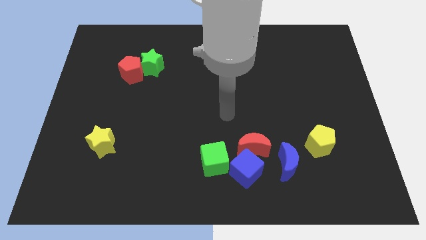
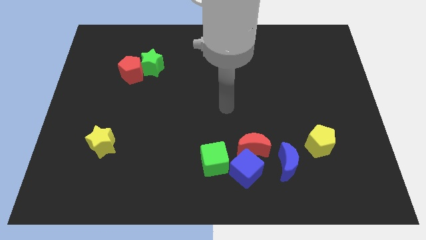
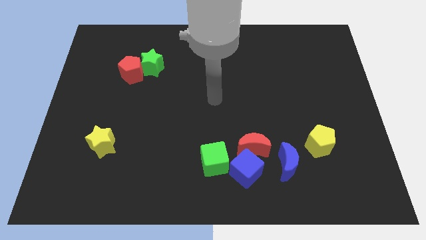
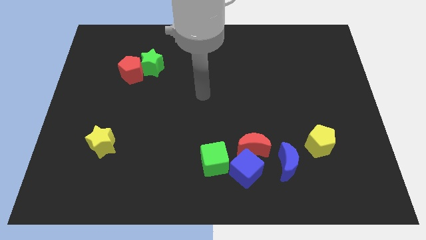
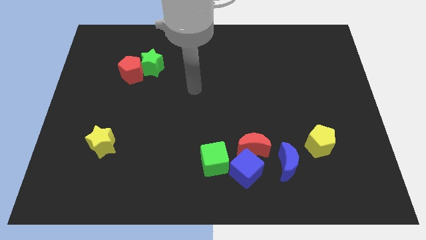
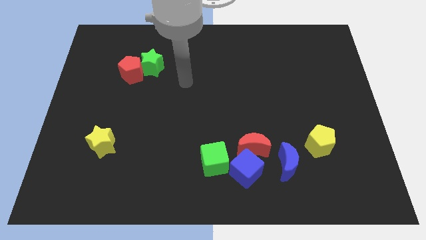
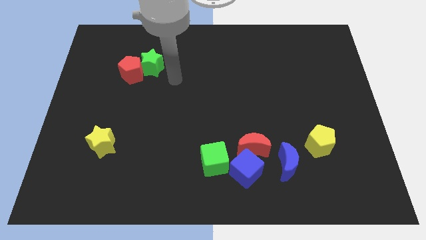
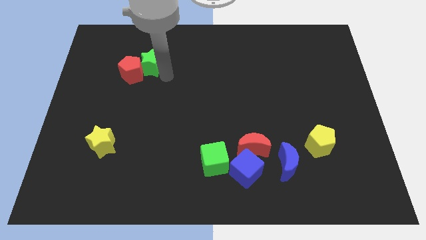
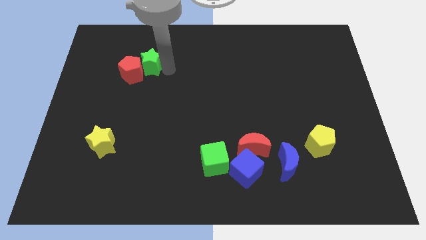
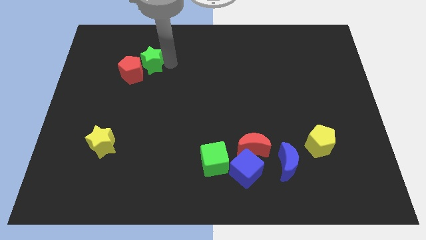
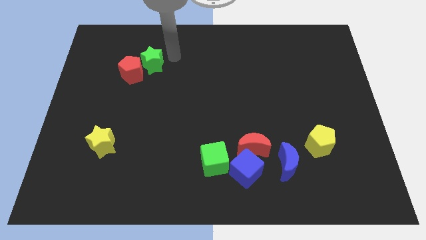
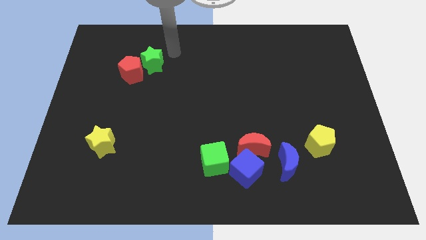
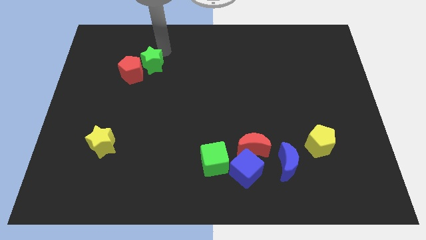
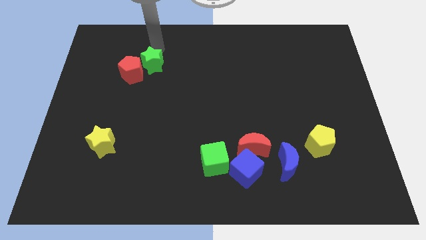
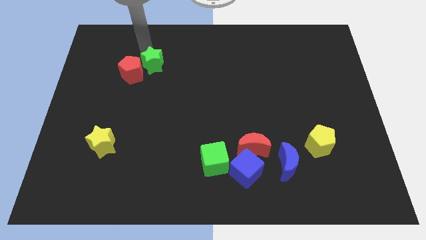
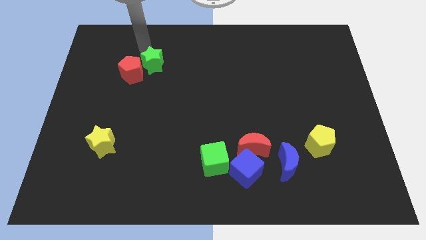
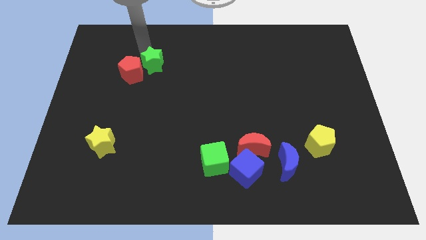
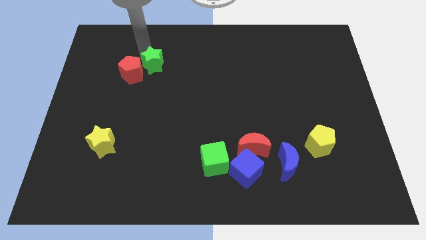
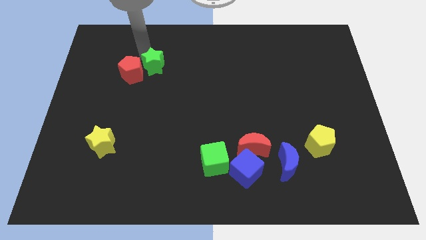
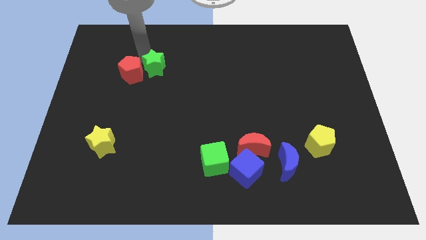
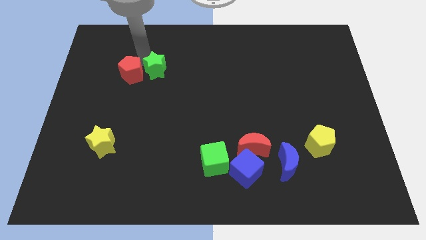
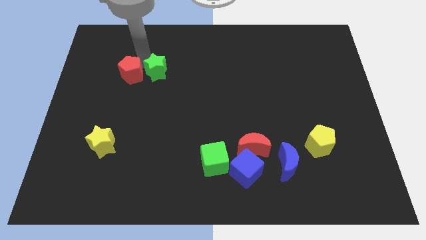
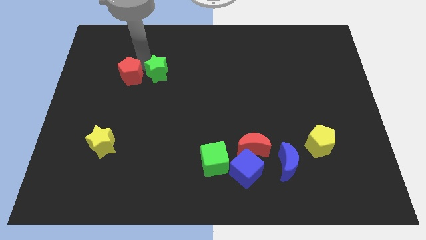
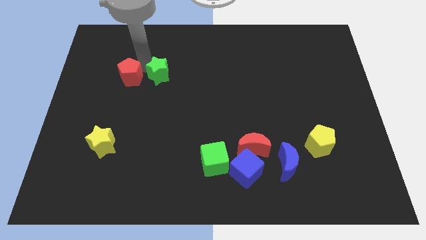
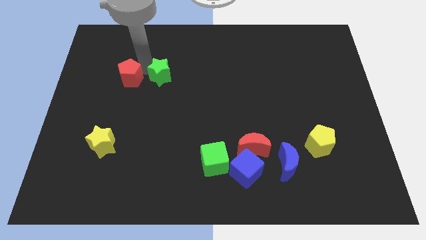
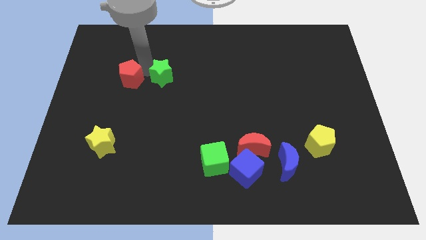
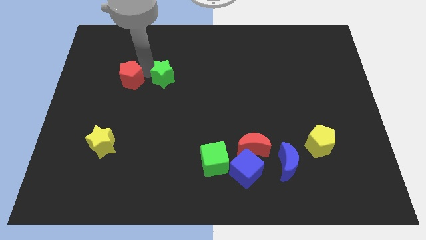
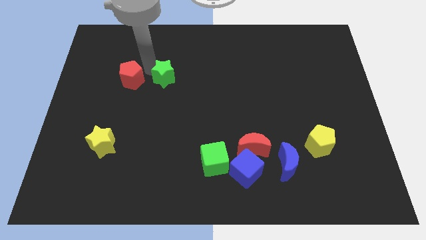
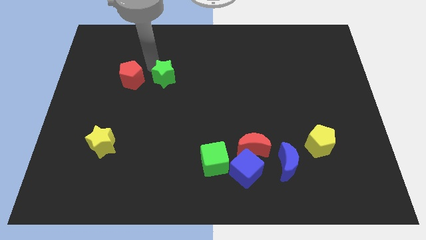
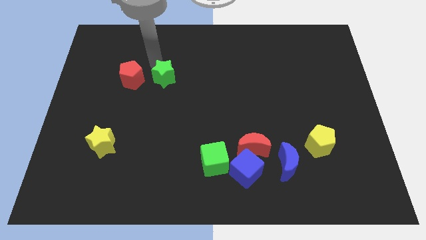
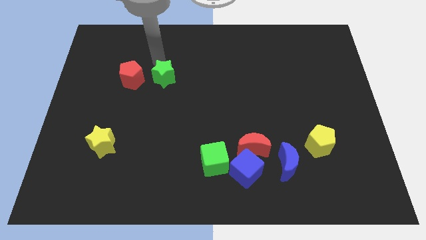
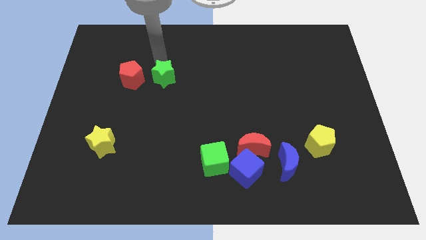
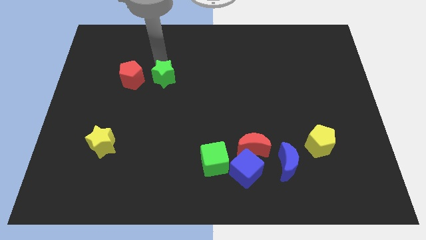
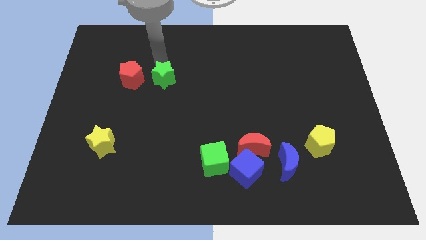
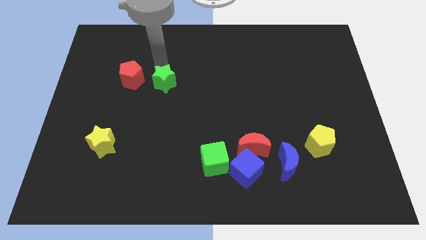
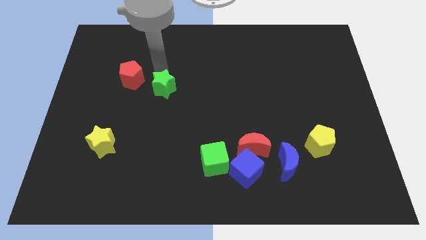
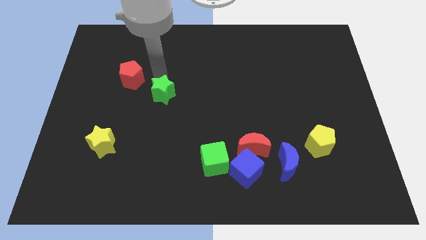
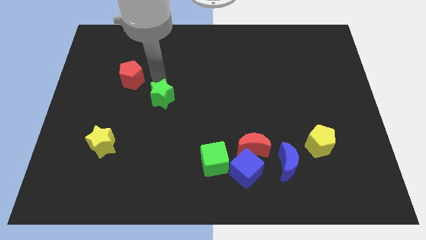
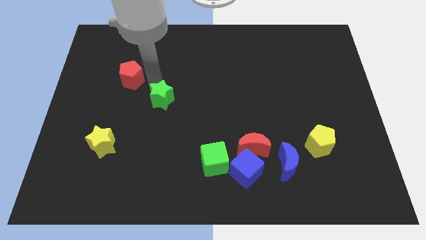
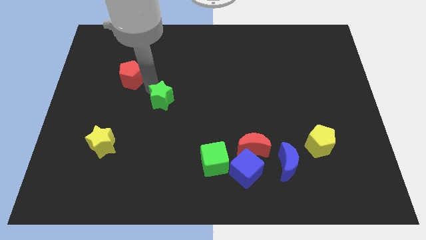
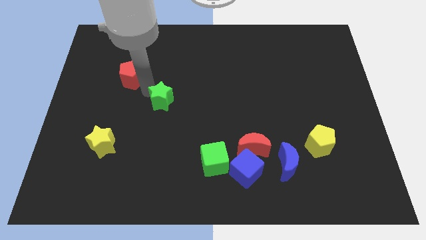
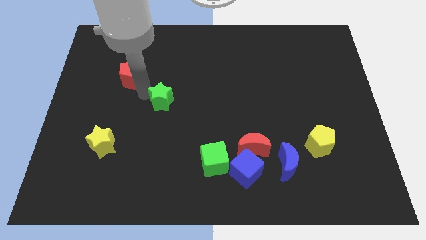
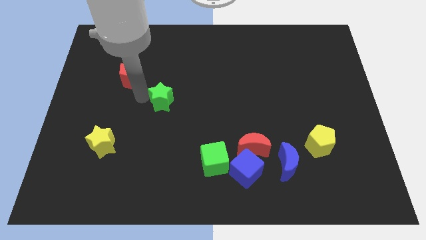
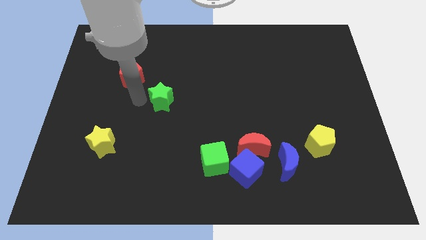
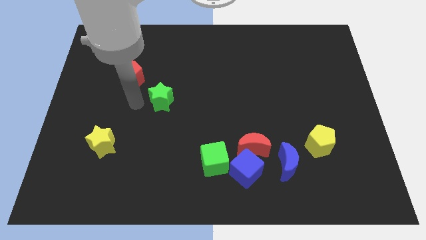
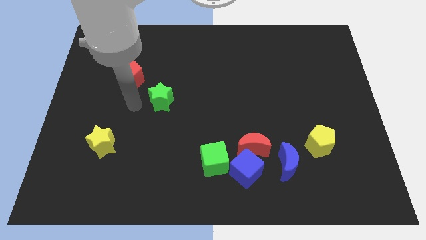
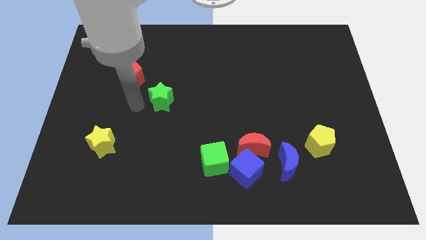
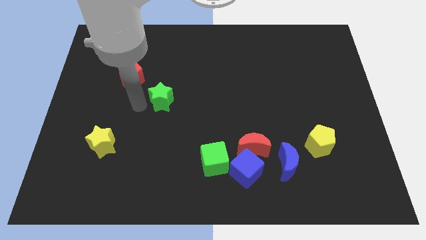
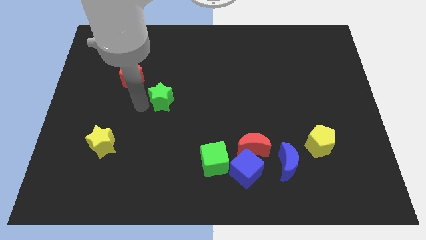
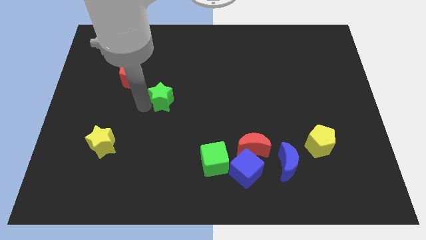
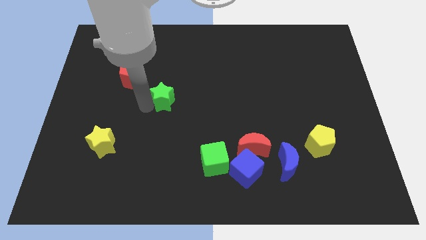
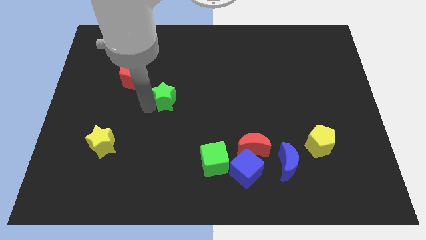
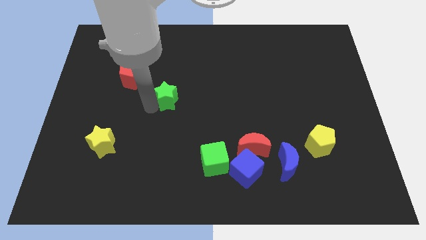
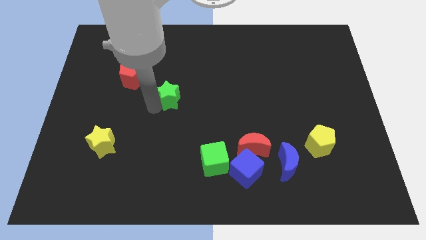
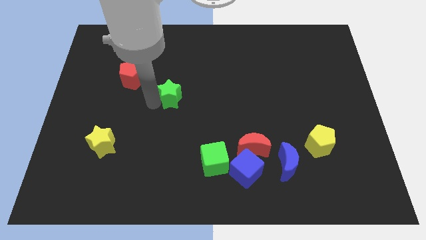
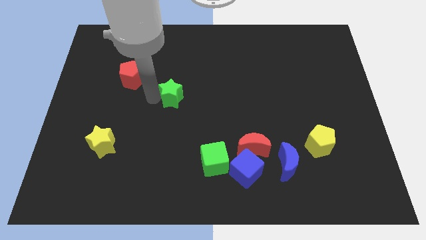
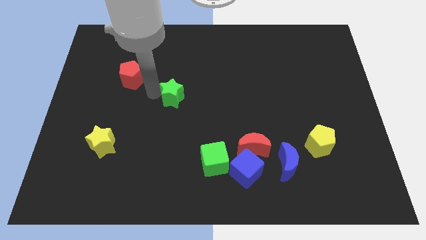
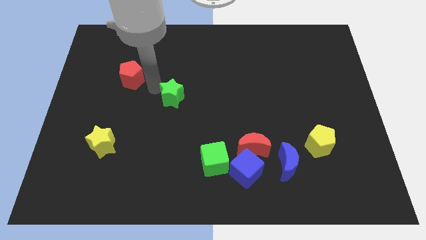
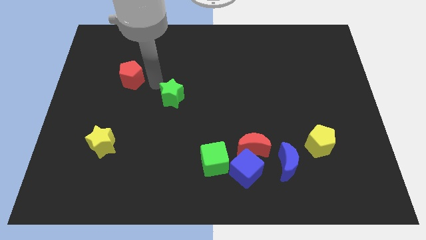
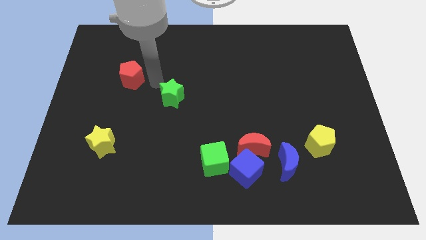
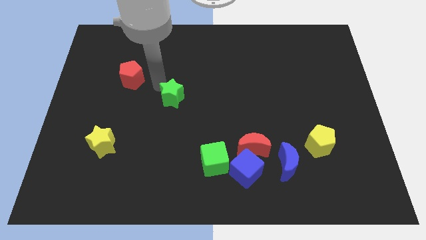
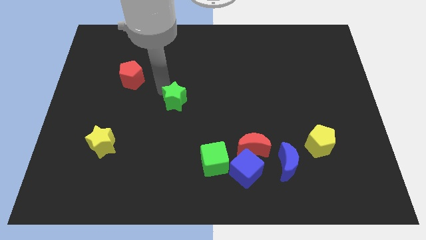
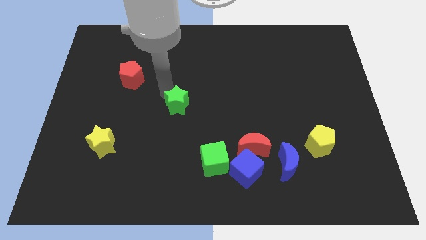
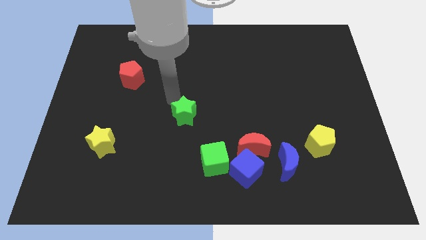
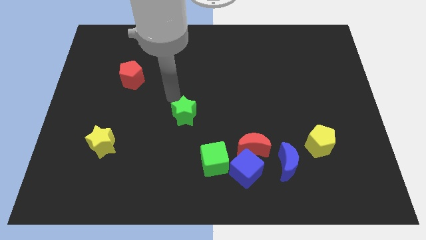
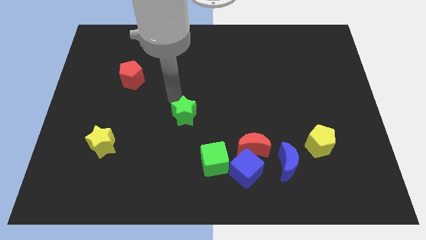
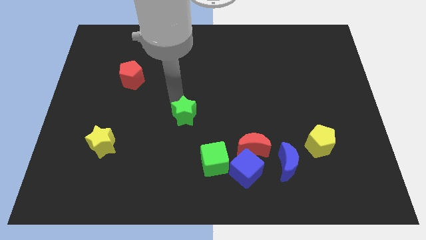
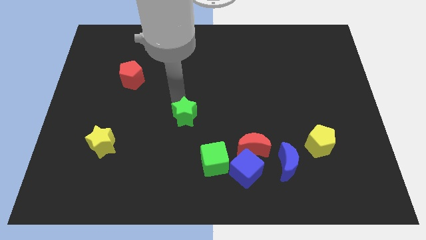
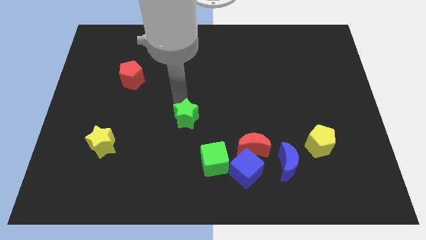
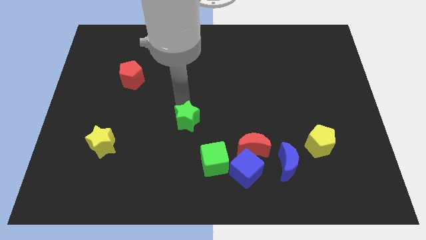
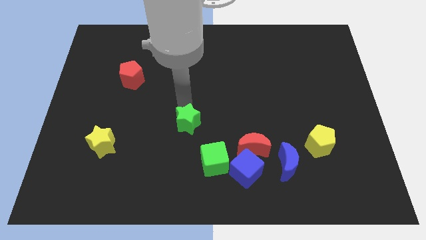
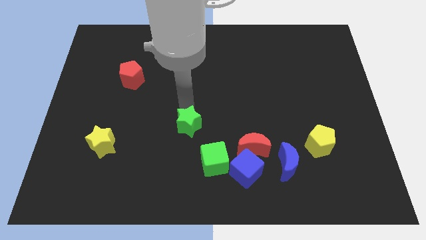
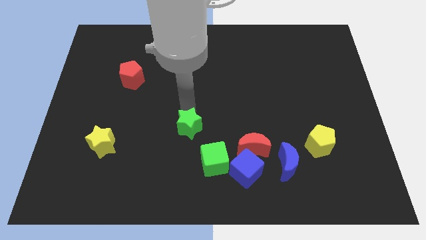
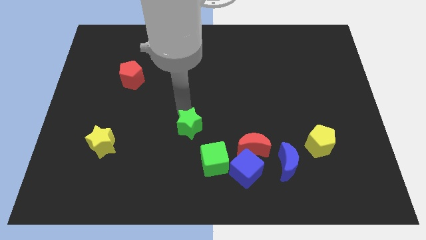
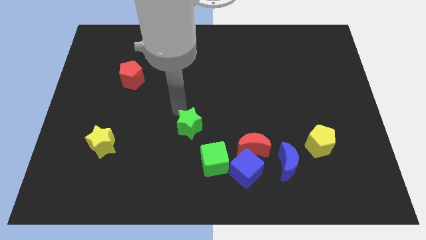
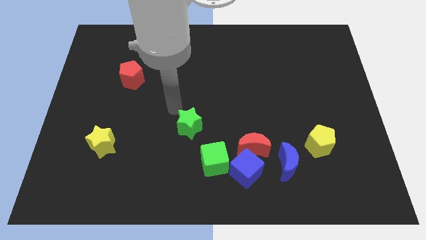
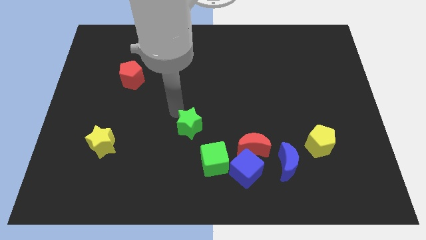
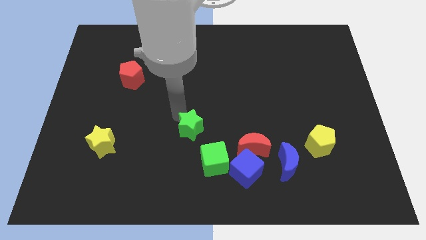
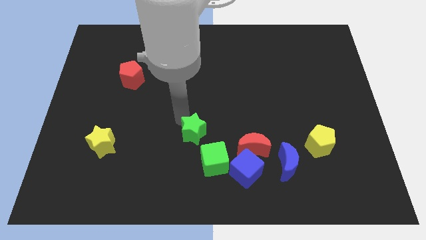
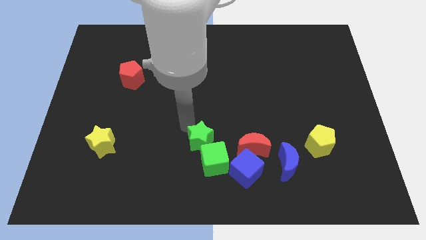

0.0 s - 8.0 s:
put the green star towards the green cube
